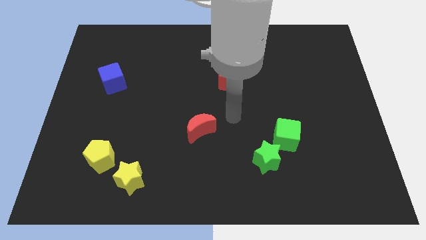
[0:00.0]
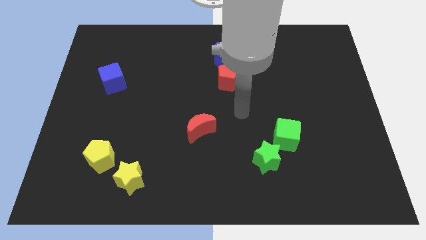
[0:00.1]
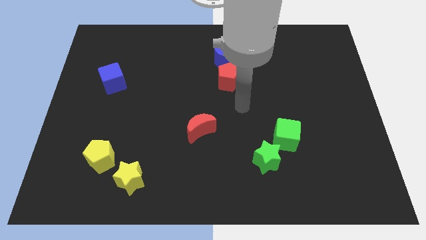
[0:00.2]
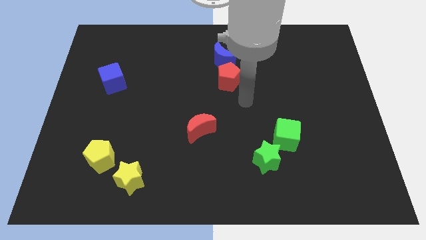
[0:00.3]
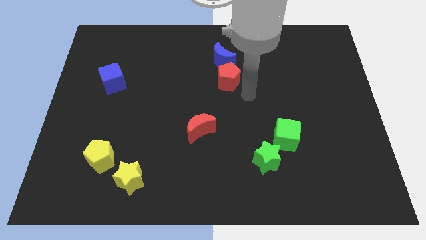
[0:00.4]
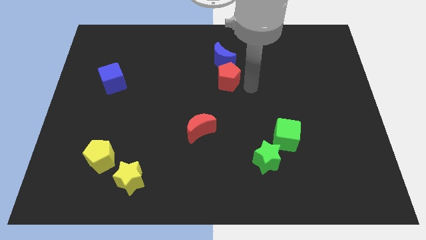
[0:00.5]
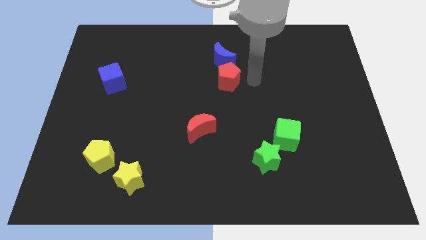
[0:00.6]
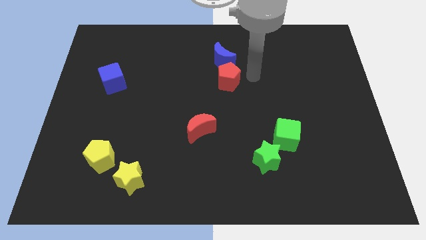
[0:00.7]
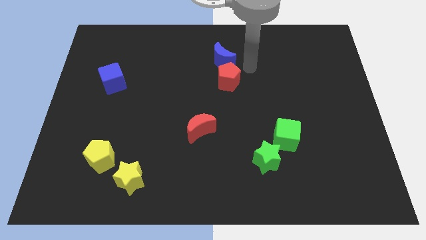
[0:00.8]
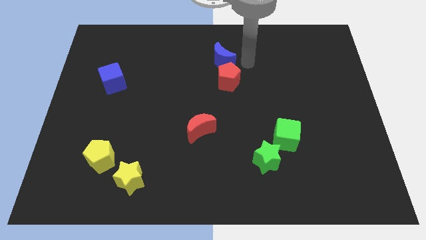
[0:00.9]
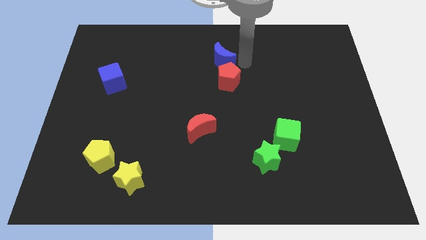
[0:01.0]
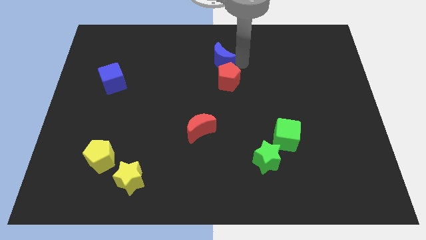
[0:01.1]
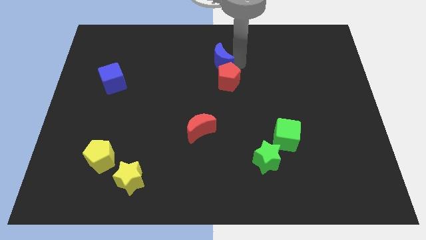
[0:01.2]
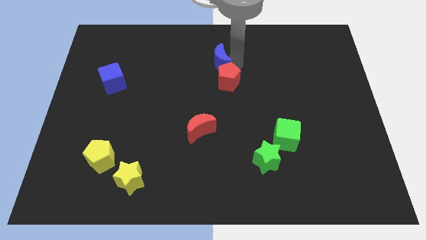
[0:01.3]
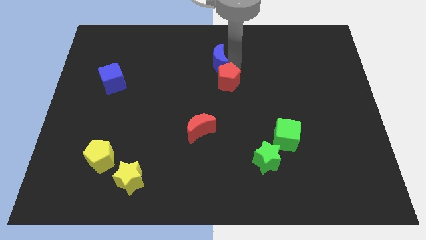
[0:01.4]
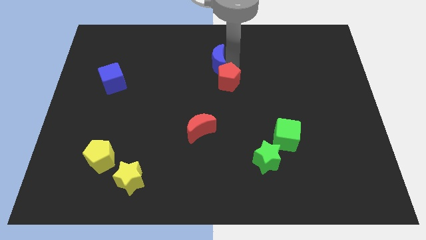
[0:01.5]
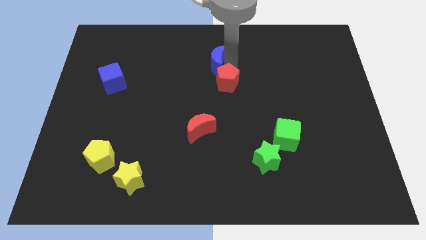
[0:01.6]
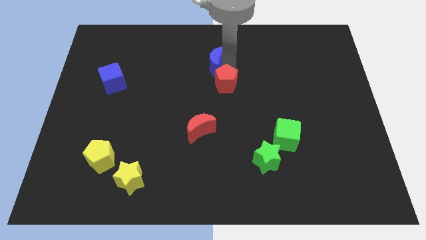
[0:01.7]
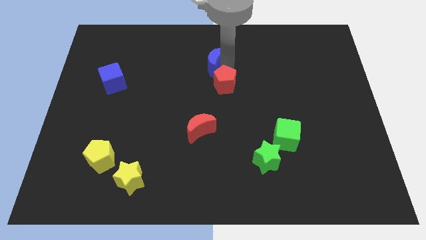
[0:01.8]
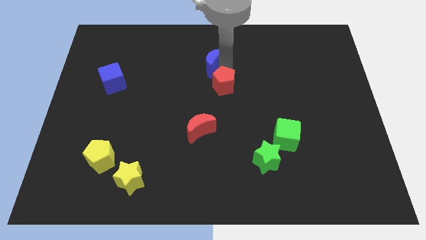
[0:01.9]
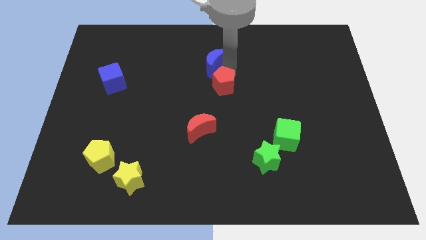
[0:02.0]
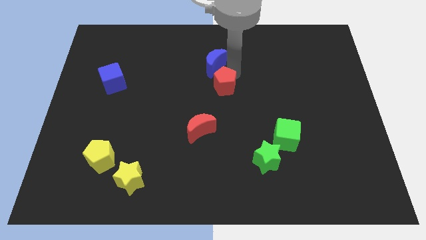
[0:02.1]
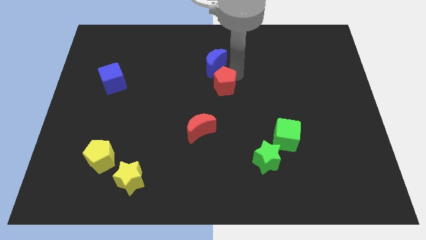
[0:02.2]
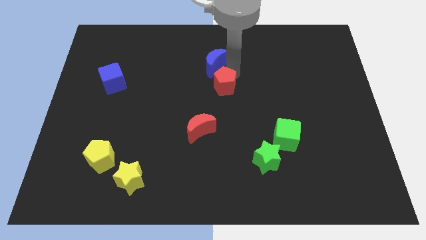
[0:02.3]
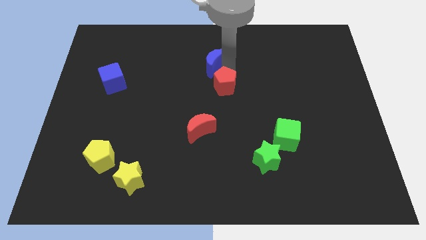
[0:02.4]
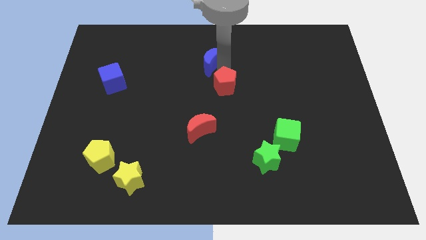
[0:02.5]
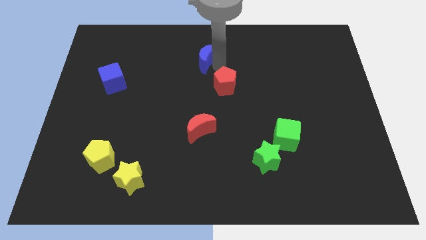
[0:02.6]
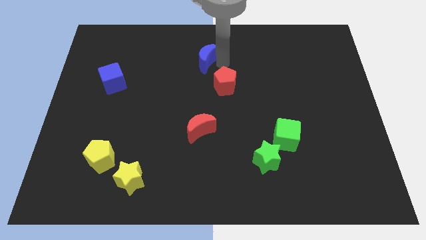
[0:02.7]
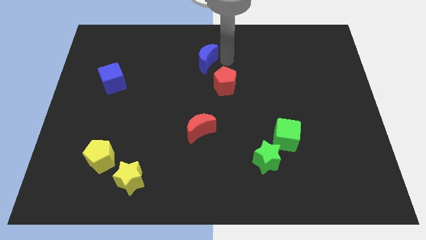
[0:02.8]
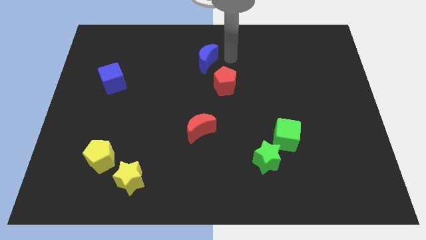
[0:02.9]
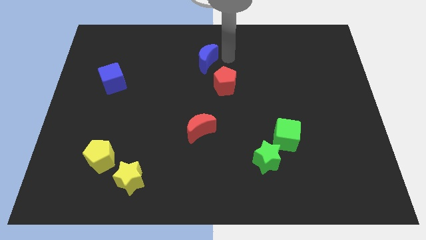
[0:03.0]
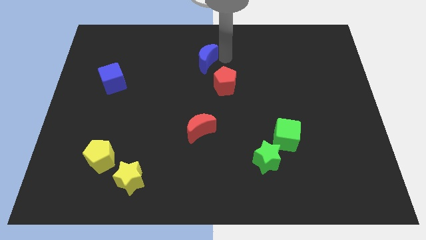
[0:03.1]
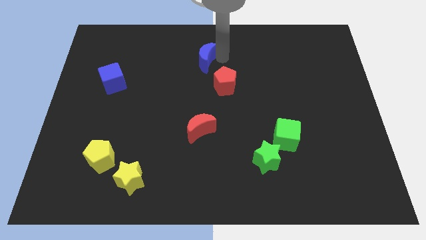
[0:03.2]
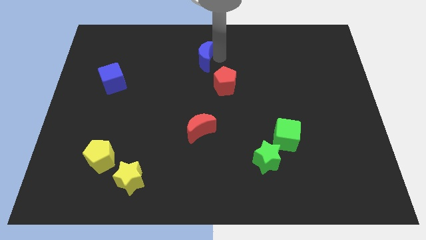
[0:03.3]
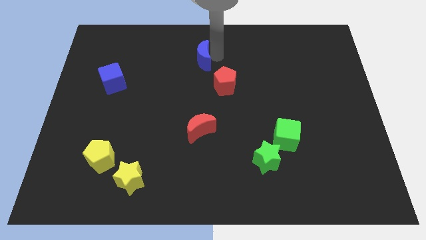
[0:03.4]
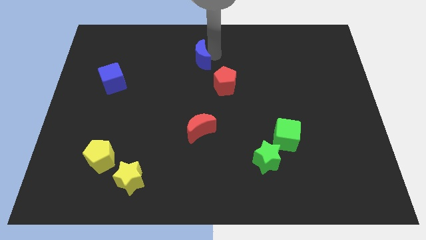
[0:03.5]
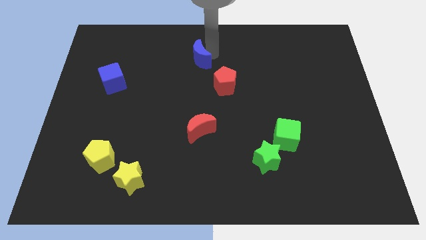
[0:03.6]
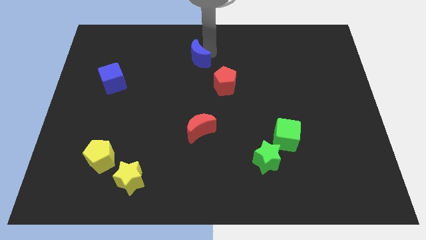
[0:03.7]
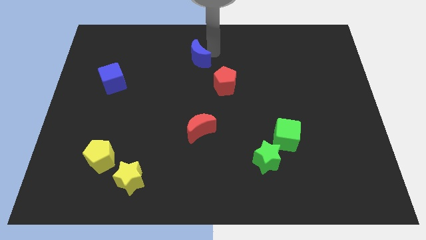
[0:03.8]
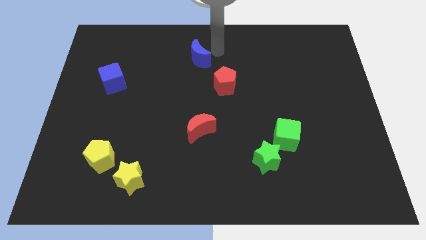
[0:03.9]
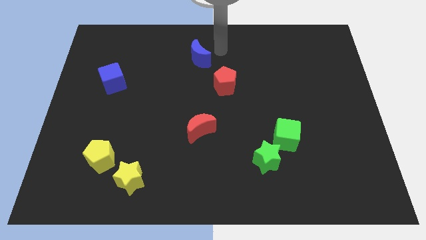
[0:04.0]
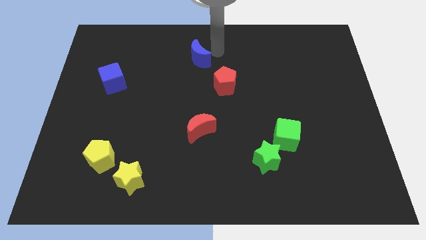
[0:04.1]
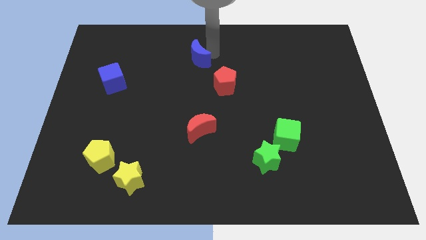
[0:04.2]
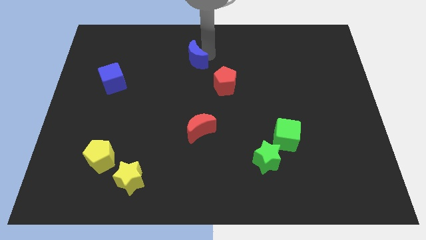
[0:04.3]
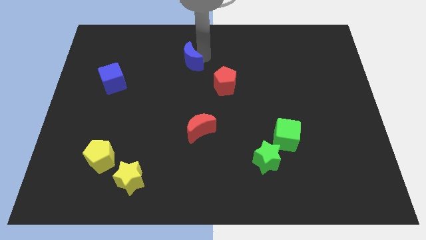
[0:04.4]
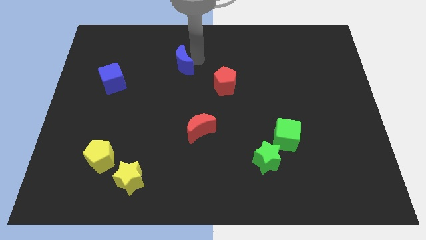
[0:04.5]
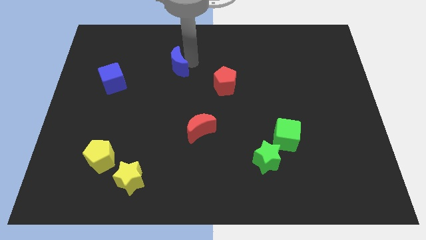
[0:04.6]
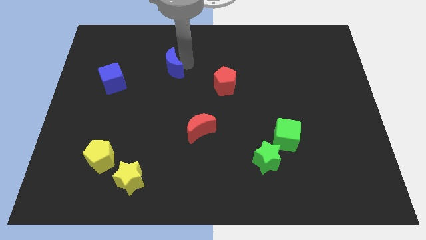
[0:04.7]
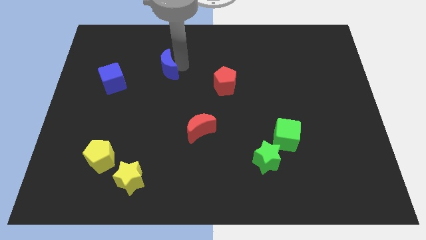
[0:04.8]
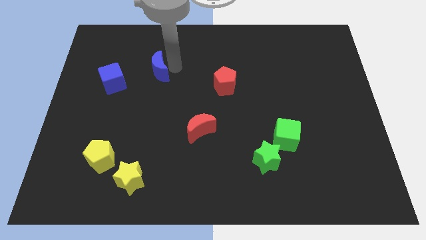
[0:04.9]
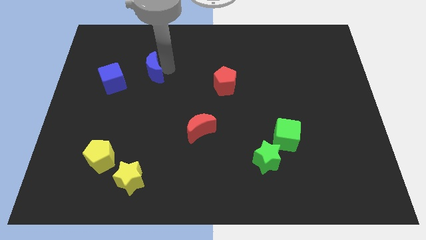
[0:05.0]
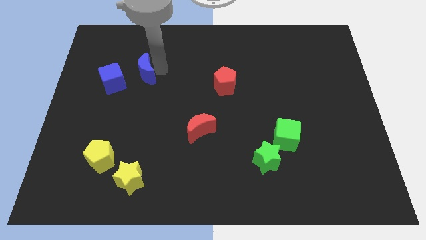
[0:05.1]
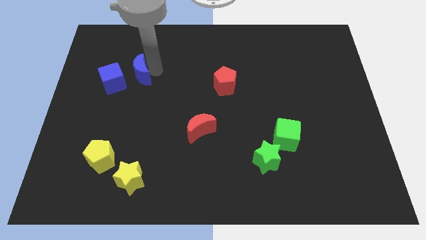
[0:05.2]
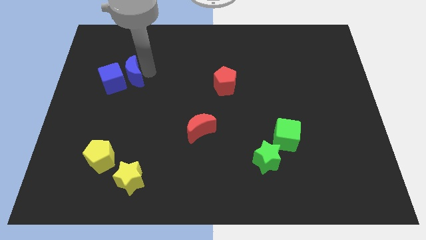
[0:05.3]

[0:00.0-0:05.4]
put the blue moon close to the blue cube

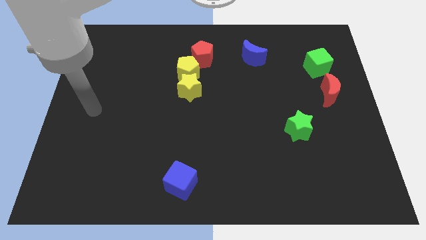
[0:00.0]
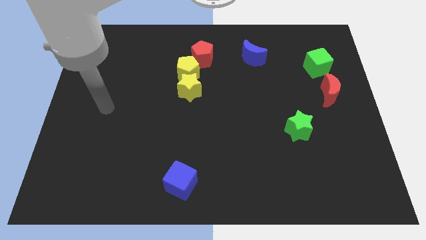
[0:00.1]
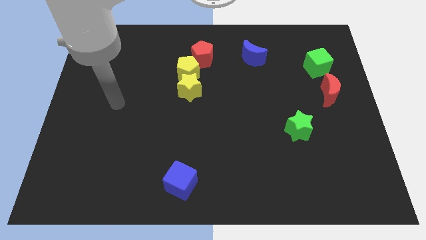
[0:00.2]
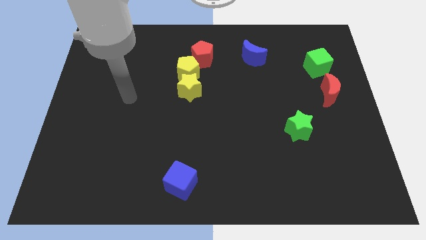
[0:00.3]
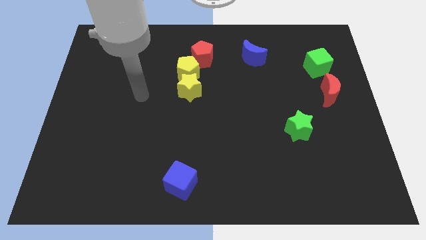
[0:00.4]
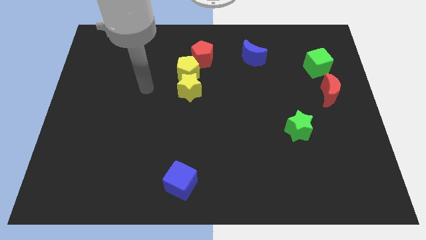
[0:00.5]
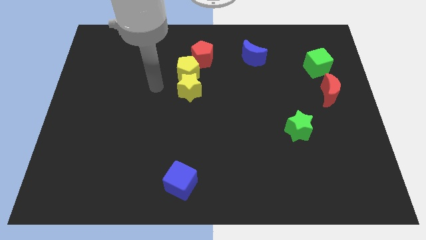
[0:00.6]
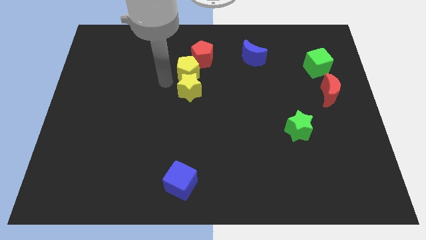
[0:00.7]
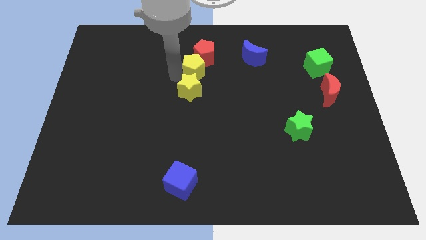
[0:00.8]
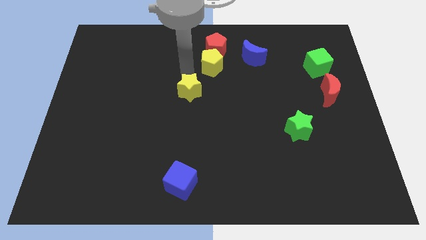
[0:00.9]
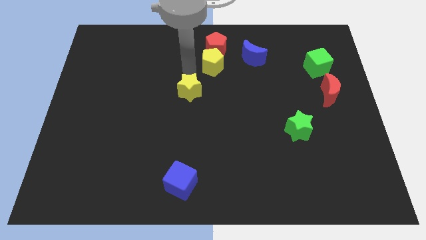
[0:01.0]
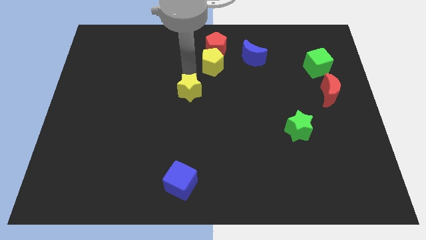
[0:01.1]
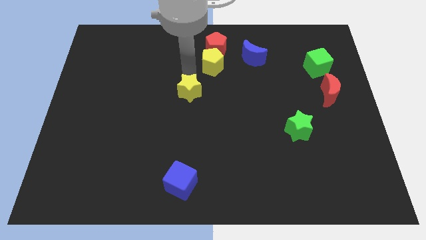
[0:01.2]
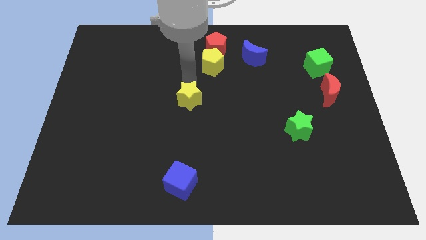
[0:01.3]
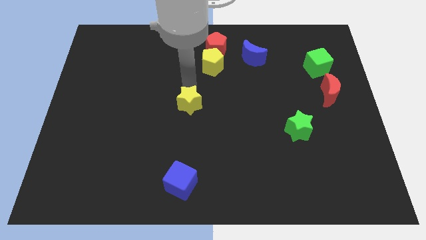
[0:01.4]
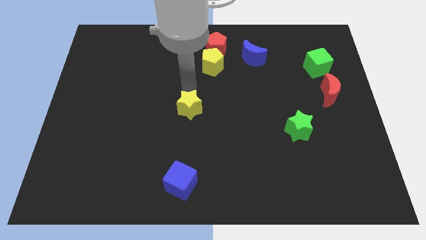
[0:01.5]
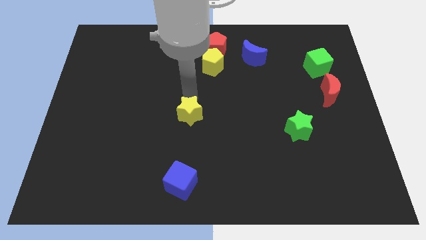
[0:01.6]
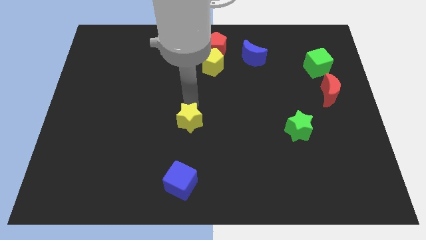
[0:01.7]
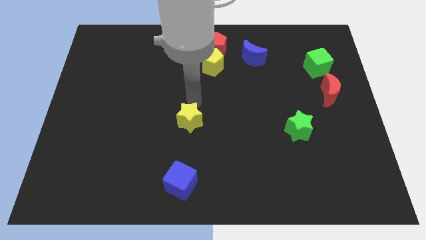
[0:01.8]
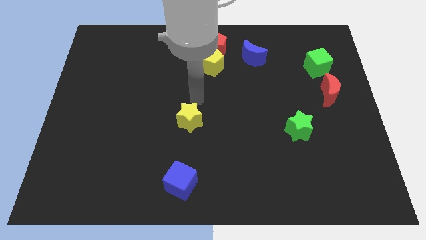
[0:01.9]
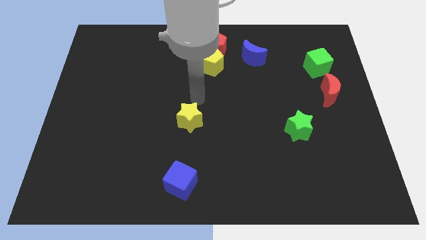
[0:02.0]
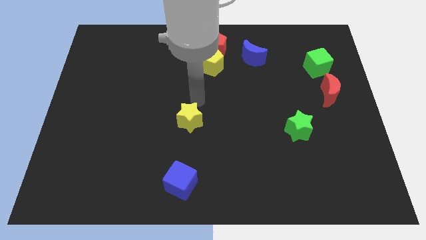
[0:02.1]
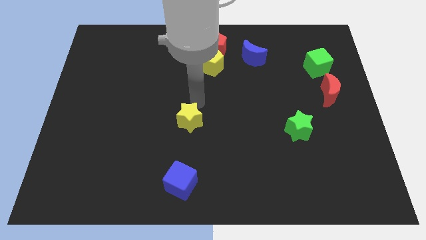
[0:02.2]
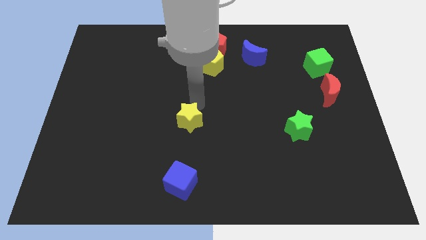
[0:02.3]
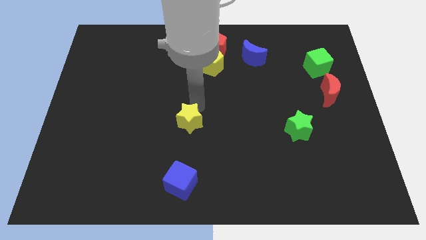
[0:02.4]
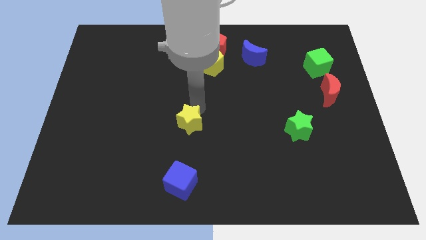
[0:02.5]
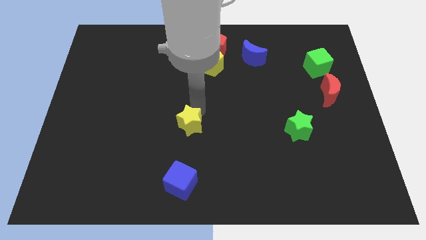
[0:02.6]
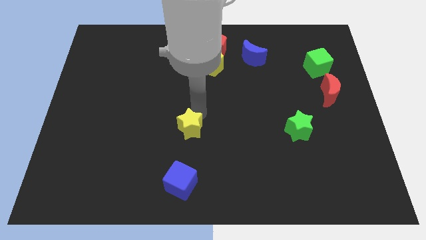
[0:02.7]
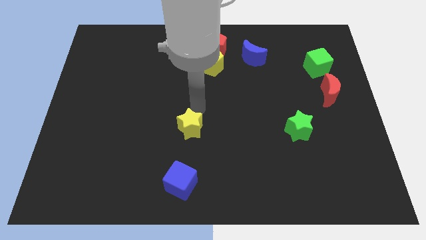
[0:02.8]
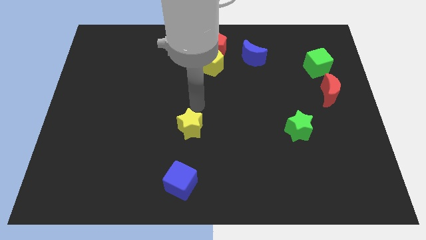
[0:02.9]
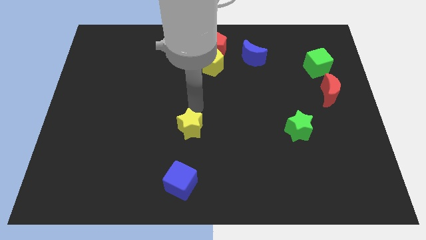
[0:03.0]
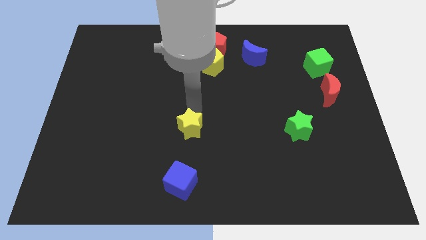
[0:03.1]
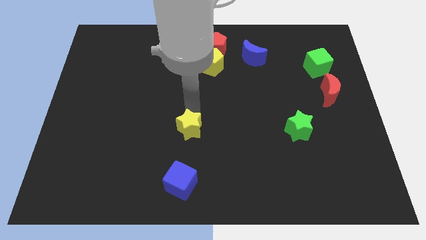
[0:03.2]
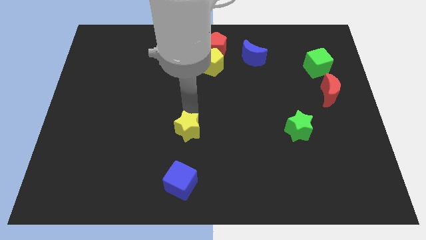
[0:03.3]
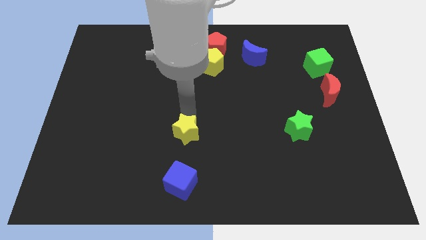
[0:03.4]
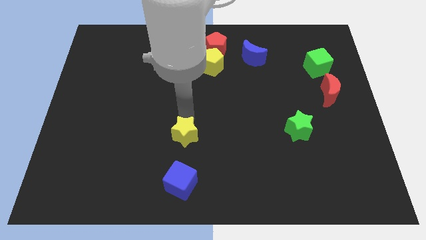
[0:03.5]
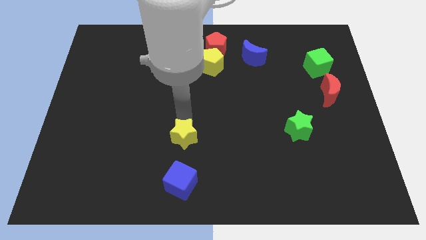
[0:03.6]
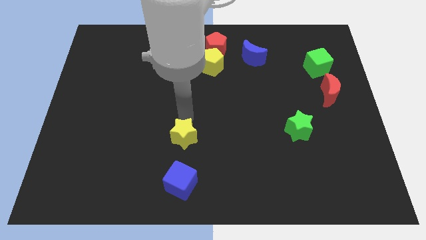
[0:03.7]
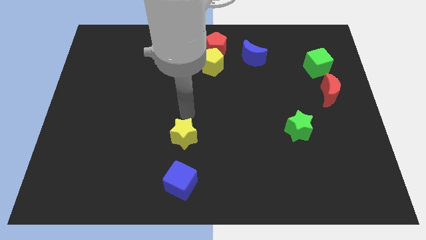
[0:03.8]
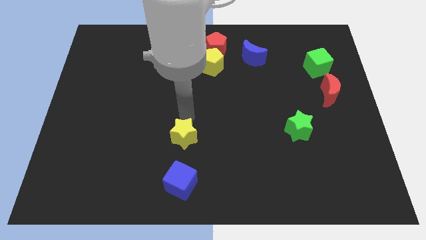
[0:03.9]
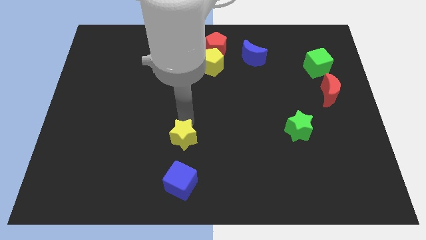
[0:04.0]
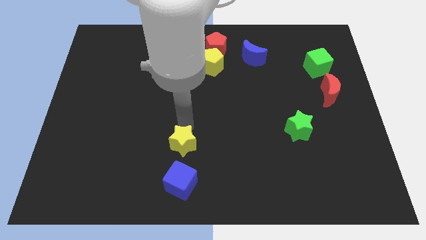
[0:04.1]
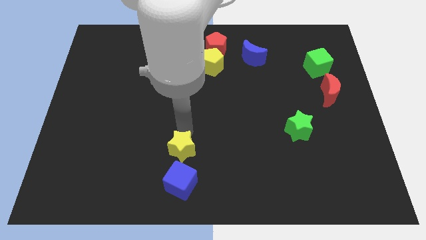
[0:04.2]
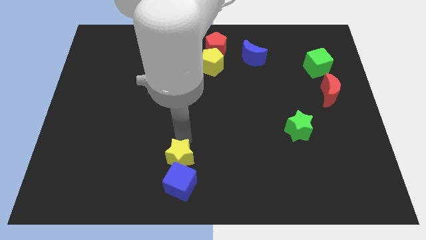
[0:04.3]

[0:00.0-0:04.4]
push the yellow star next to the blue cube
